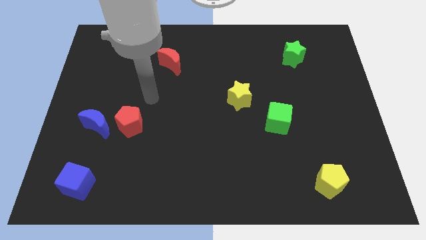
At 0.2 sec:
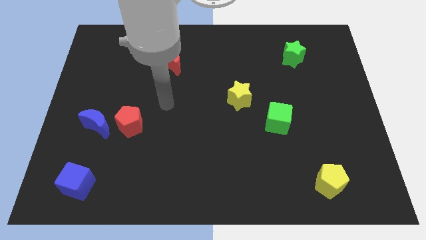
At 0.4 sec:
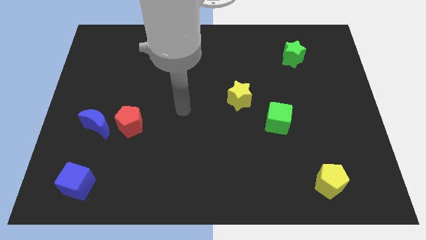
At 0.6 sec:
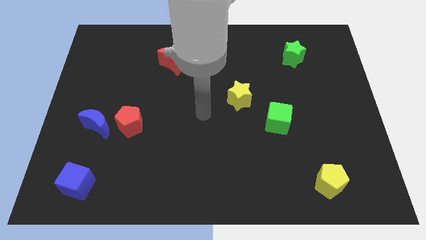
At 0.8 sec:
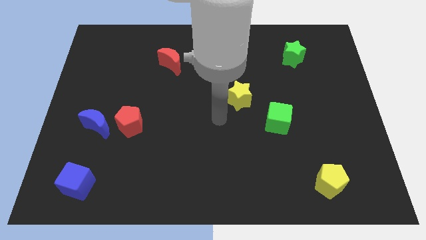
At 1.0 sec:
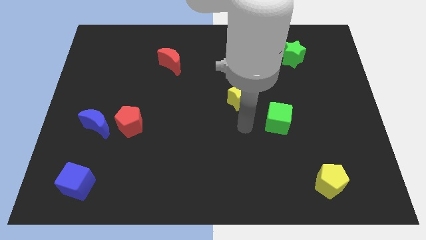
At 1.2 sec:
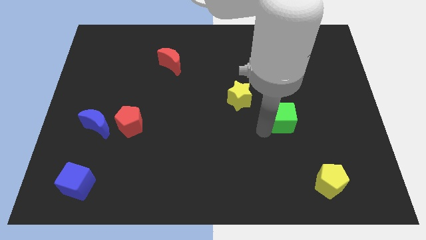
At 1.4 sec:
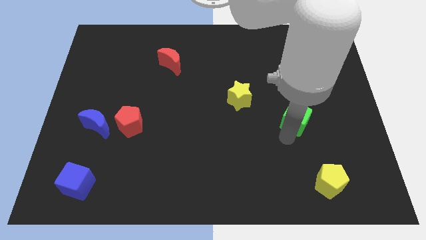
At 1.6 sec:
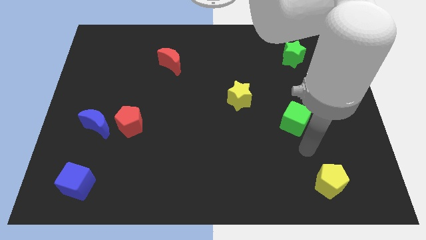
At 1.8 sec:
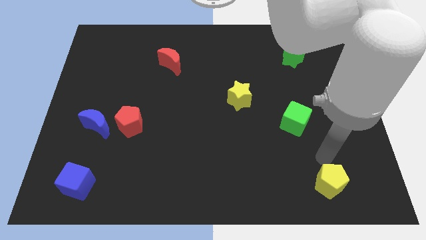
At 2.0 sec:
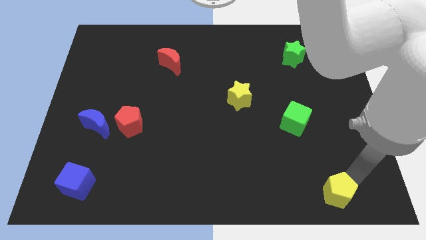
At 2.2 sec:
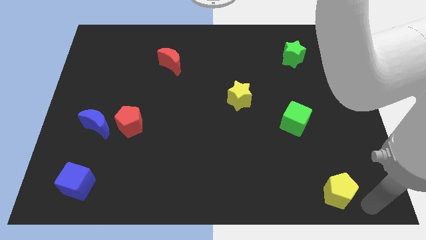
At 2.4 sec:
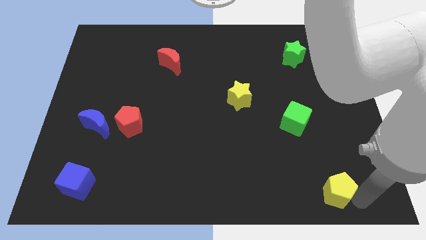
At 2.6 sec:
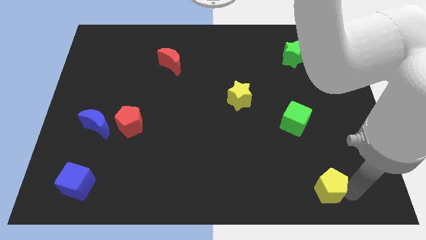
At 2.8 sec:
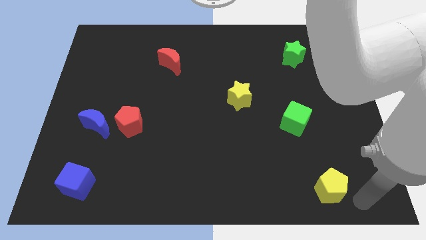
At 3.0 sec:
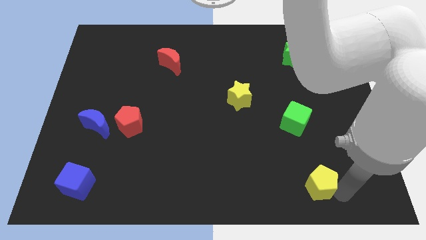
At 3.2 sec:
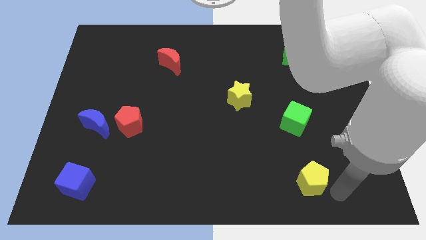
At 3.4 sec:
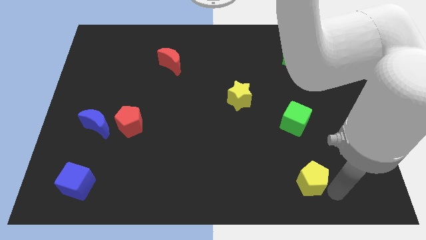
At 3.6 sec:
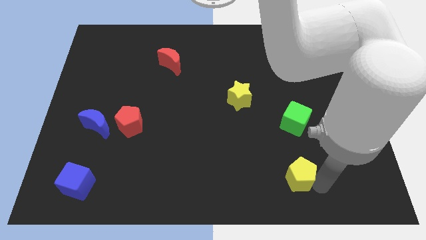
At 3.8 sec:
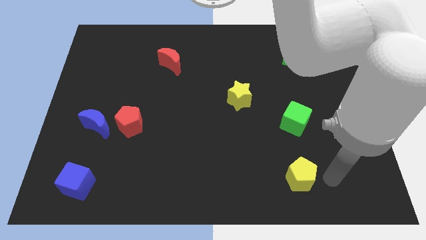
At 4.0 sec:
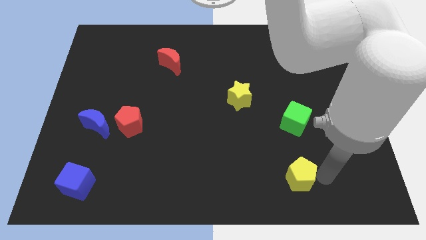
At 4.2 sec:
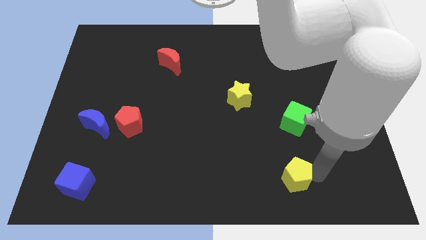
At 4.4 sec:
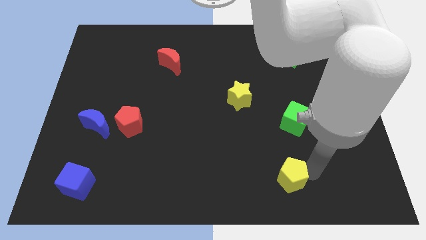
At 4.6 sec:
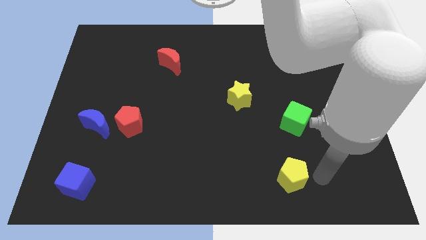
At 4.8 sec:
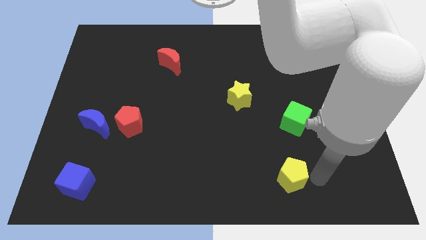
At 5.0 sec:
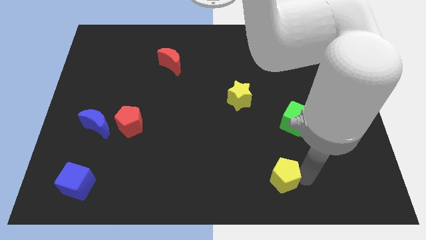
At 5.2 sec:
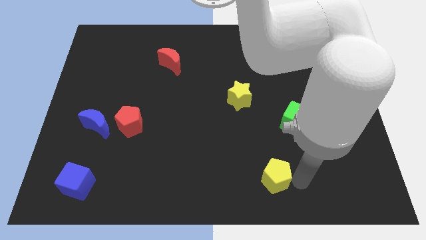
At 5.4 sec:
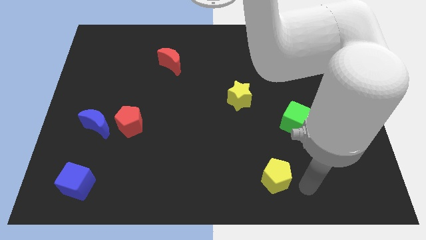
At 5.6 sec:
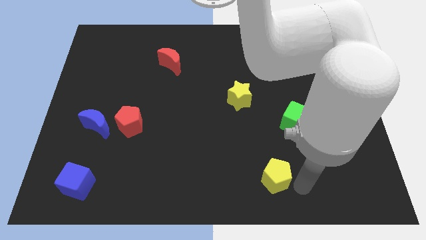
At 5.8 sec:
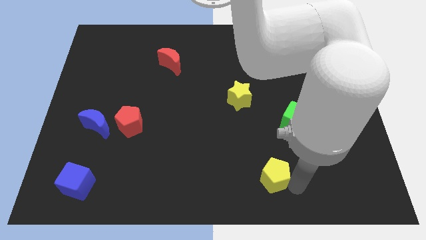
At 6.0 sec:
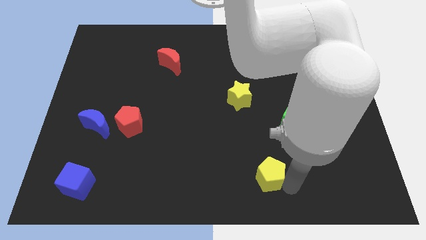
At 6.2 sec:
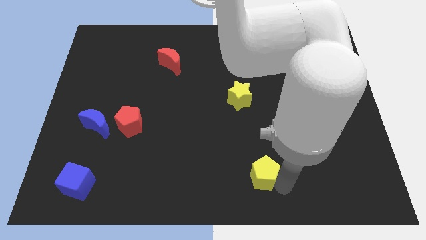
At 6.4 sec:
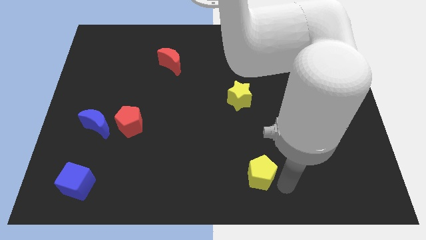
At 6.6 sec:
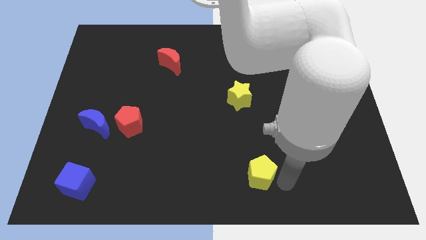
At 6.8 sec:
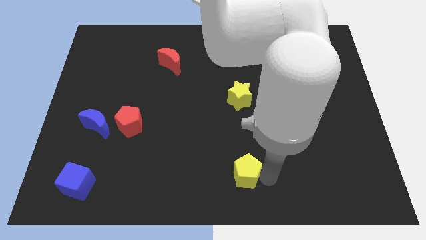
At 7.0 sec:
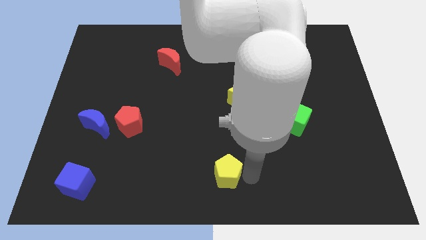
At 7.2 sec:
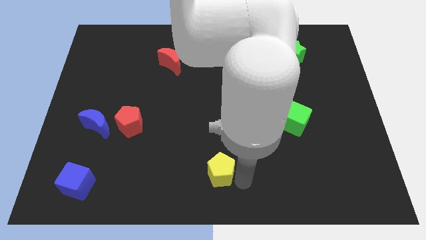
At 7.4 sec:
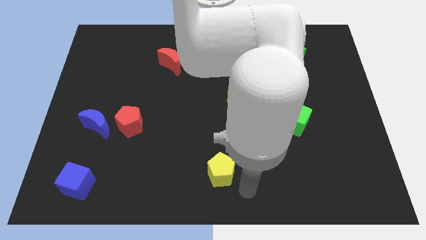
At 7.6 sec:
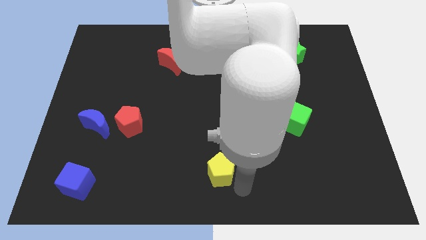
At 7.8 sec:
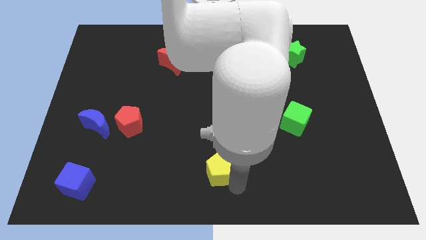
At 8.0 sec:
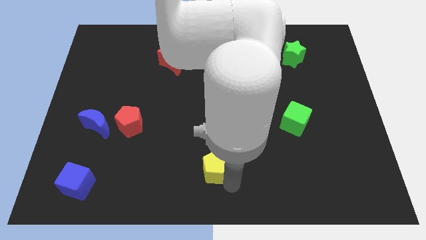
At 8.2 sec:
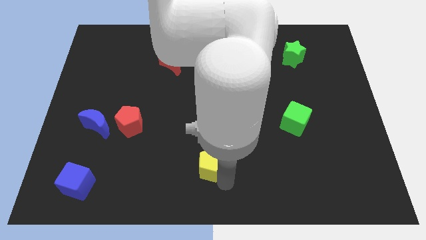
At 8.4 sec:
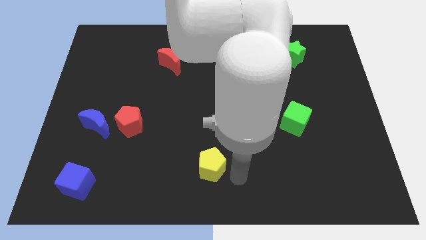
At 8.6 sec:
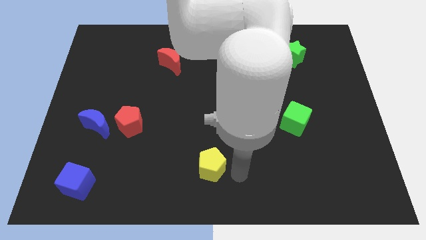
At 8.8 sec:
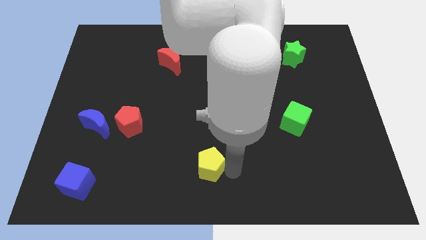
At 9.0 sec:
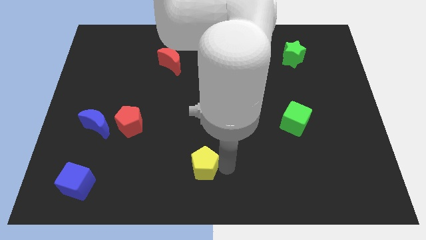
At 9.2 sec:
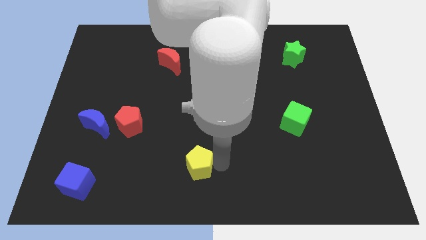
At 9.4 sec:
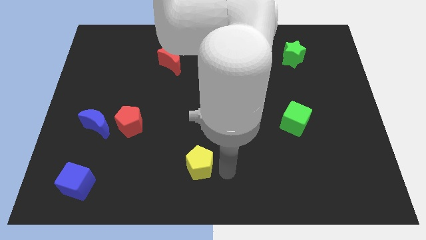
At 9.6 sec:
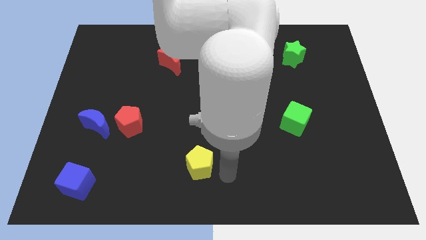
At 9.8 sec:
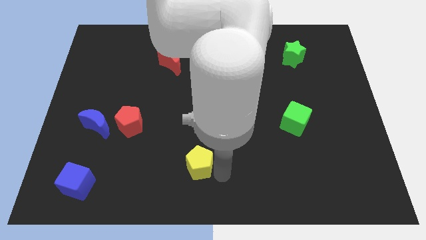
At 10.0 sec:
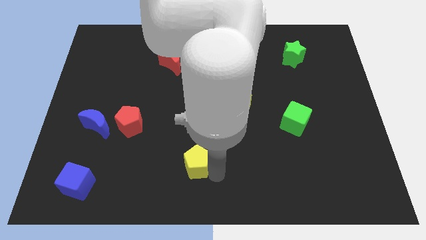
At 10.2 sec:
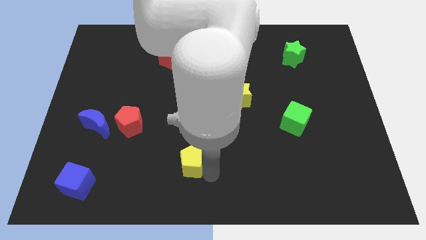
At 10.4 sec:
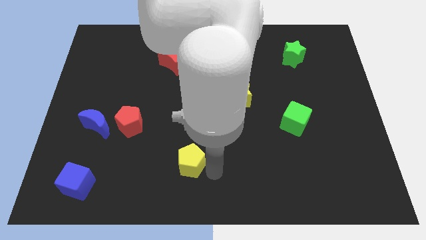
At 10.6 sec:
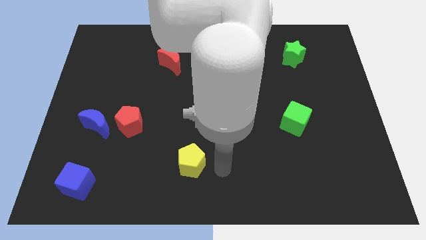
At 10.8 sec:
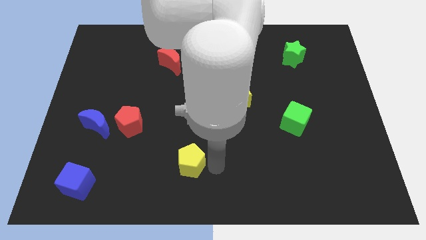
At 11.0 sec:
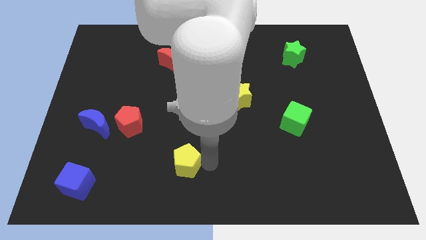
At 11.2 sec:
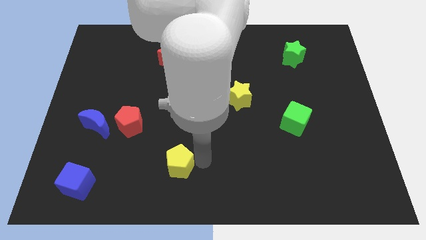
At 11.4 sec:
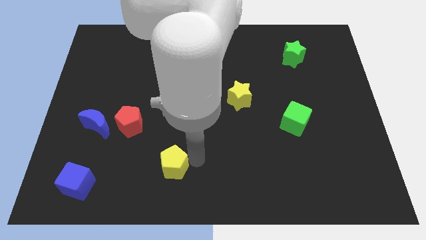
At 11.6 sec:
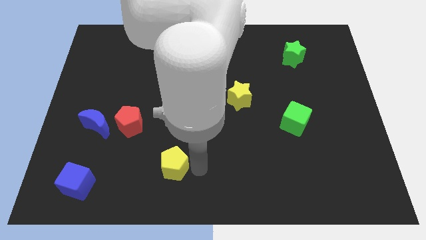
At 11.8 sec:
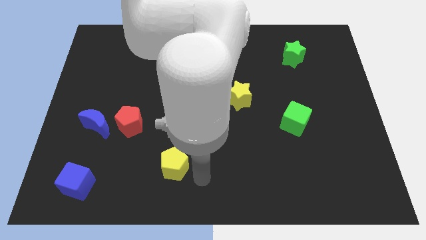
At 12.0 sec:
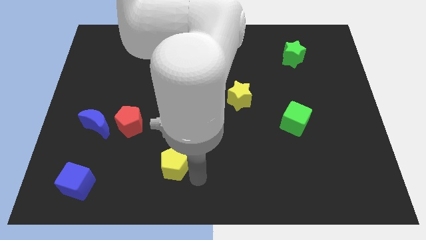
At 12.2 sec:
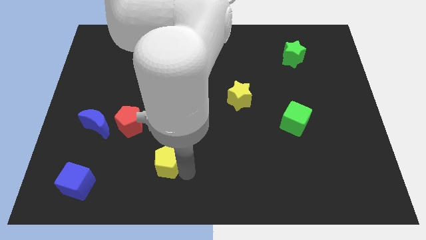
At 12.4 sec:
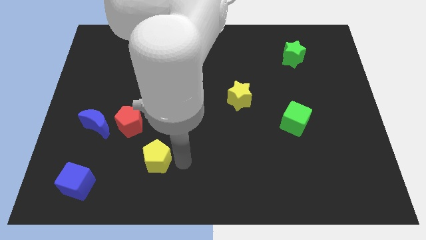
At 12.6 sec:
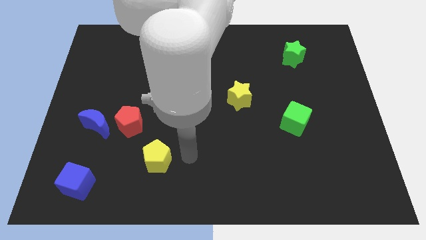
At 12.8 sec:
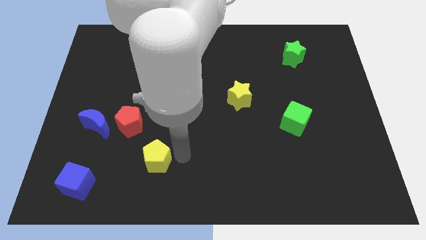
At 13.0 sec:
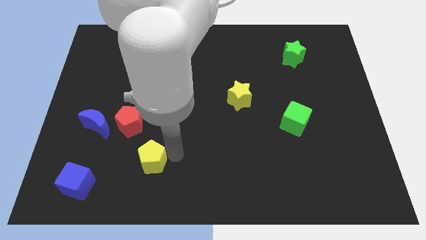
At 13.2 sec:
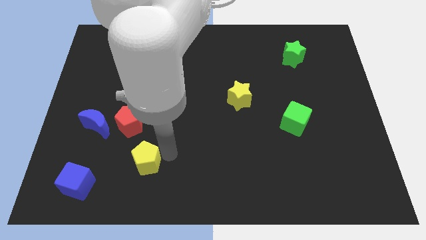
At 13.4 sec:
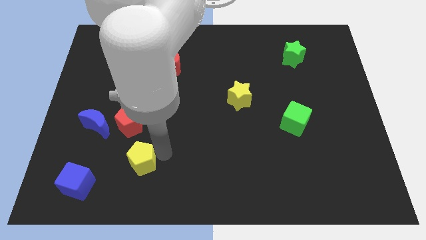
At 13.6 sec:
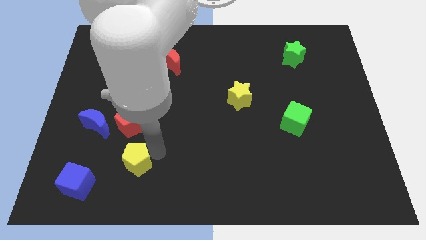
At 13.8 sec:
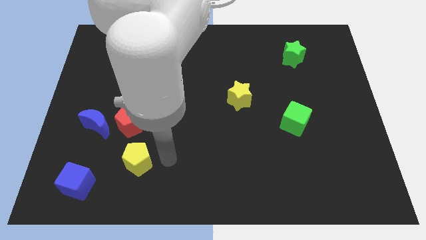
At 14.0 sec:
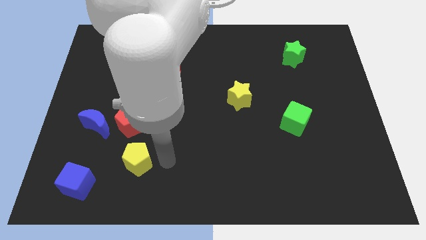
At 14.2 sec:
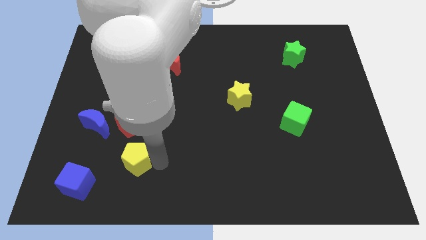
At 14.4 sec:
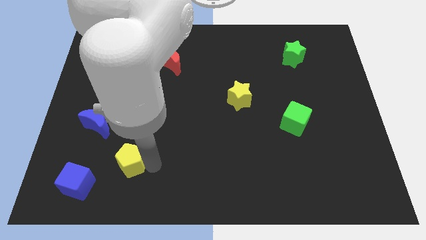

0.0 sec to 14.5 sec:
move the yellow pentagon to the top right side of the blue cube
